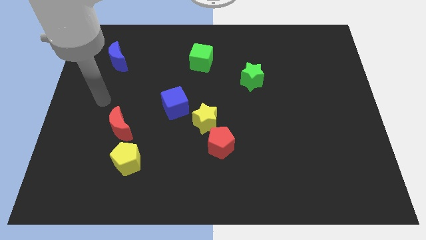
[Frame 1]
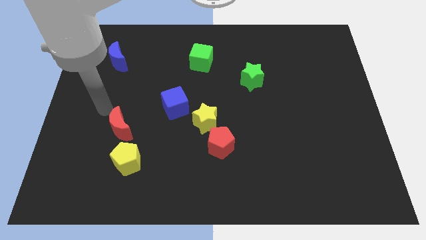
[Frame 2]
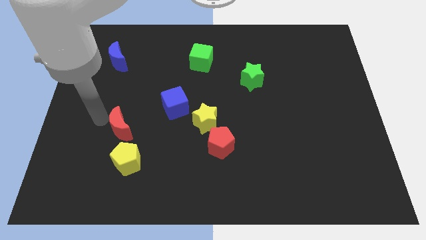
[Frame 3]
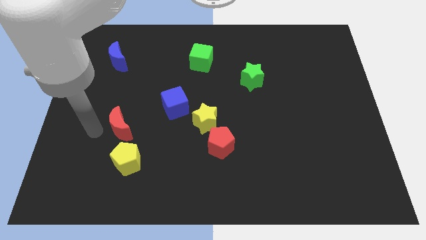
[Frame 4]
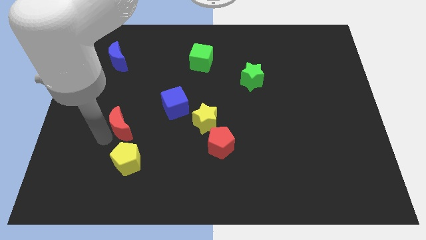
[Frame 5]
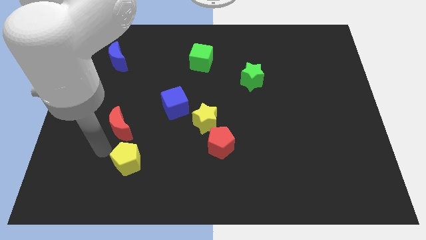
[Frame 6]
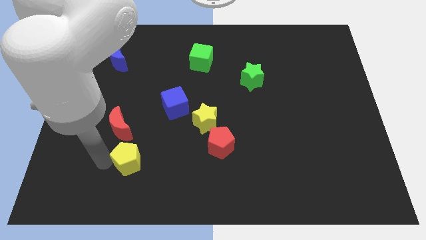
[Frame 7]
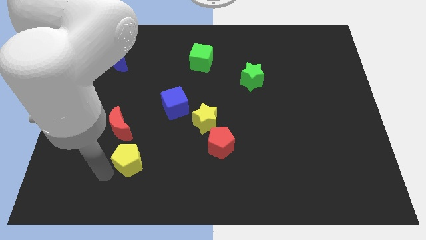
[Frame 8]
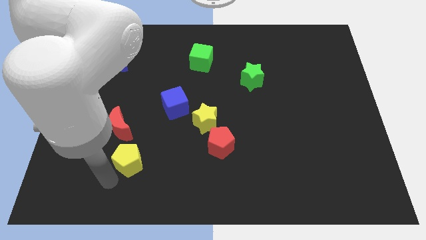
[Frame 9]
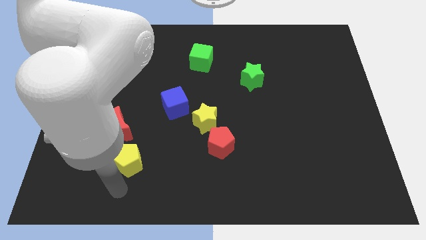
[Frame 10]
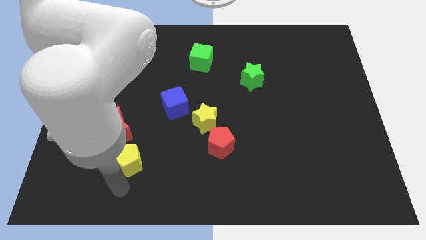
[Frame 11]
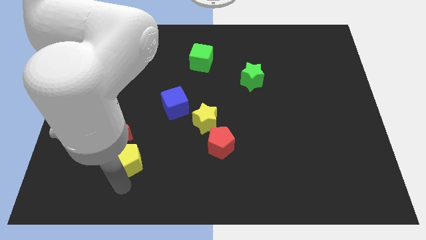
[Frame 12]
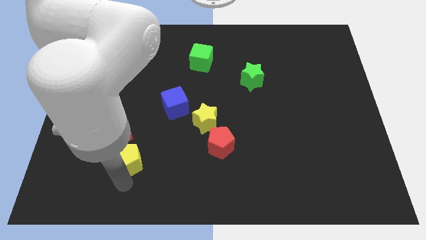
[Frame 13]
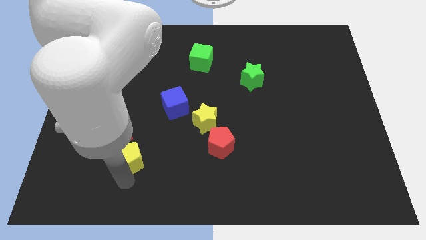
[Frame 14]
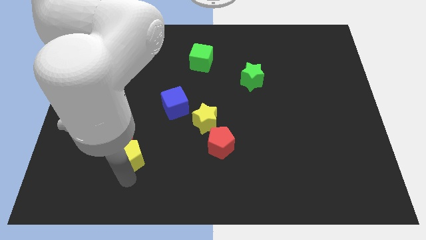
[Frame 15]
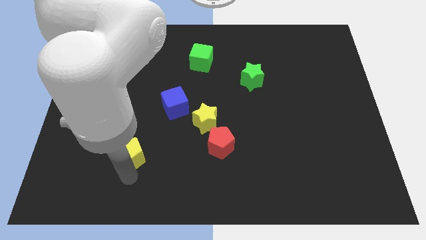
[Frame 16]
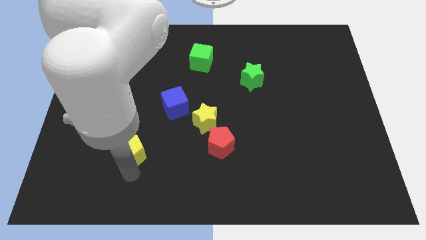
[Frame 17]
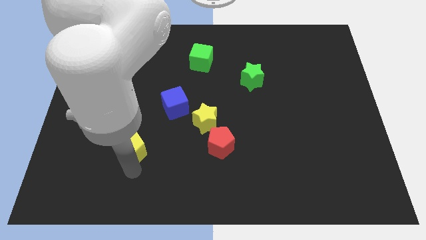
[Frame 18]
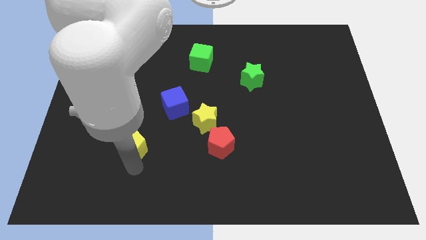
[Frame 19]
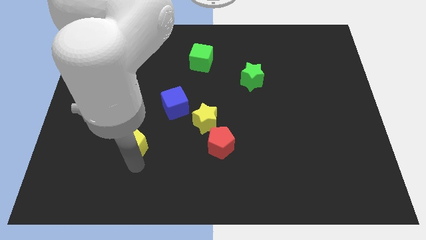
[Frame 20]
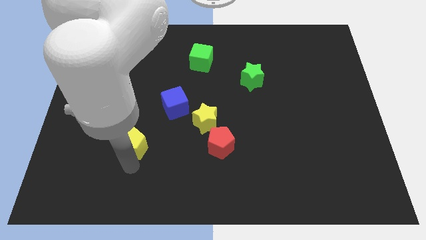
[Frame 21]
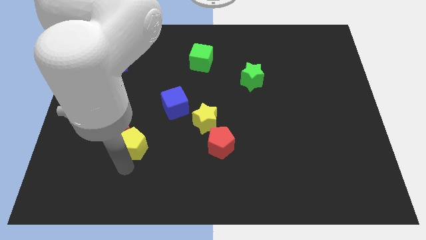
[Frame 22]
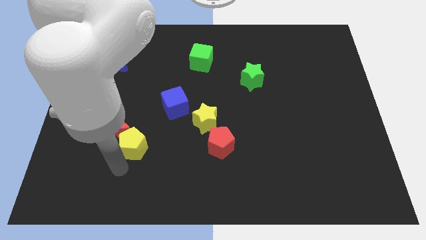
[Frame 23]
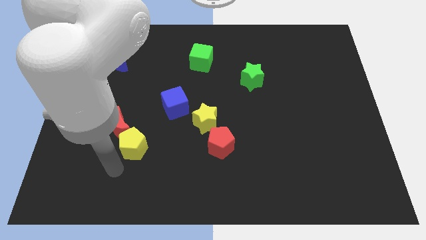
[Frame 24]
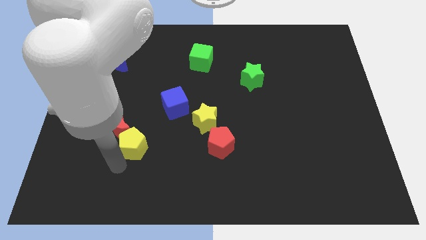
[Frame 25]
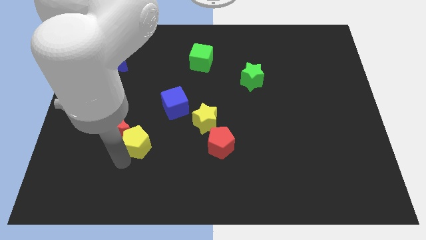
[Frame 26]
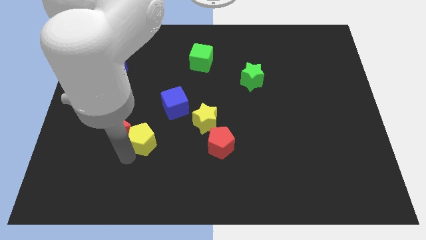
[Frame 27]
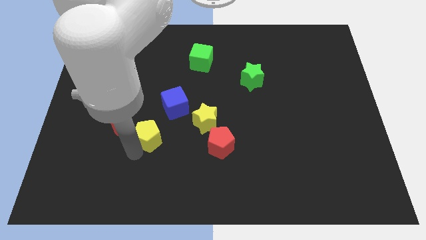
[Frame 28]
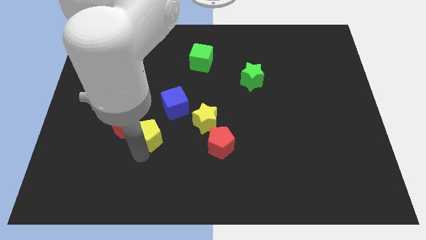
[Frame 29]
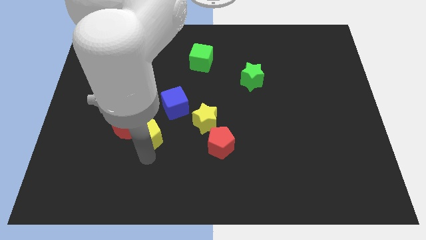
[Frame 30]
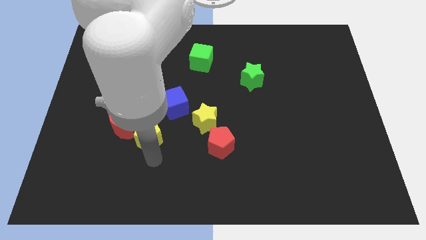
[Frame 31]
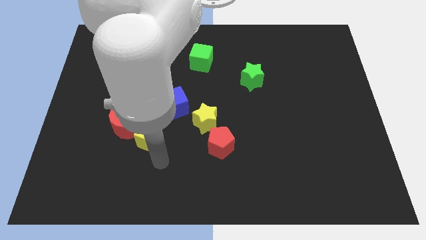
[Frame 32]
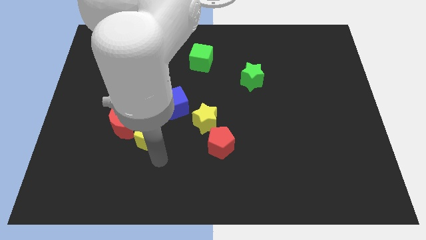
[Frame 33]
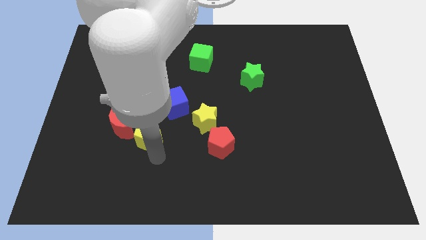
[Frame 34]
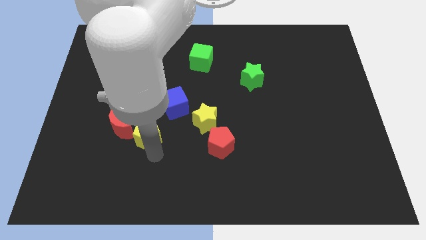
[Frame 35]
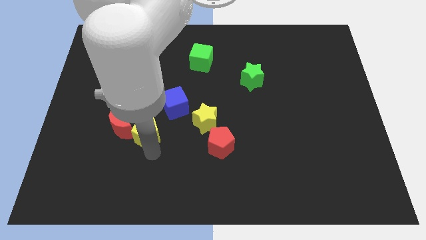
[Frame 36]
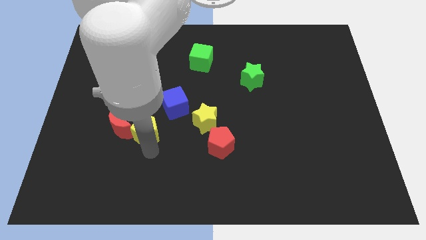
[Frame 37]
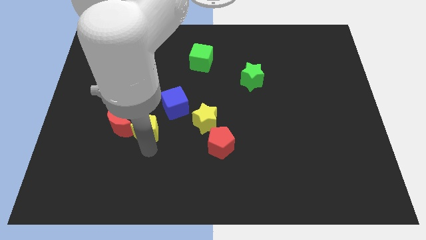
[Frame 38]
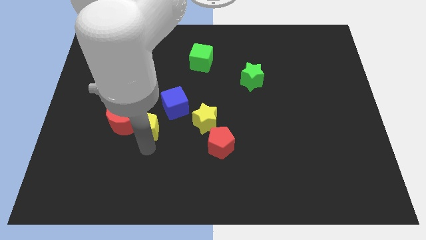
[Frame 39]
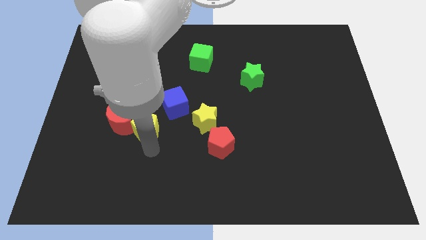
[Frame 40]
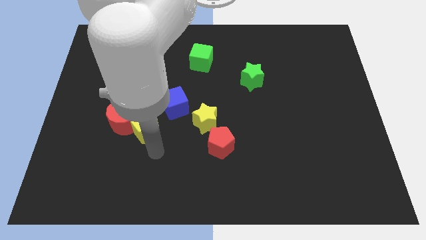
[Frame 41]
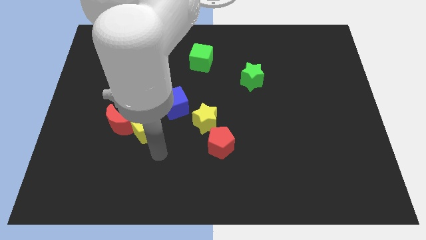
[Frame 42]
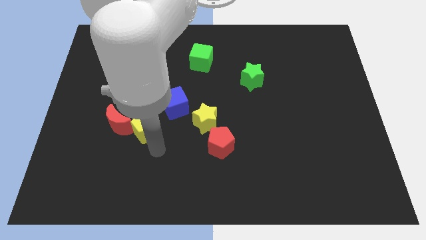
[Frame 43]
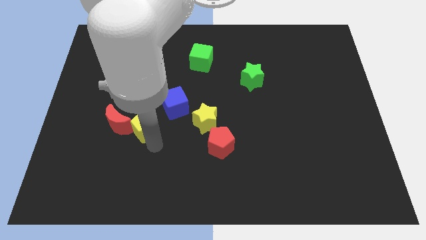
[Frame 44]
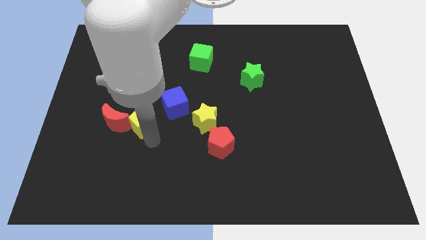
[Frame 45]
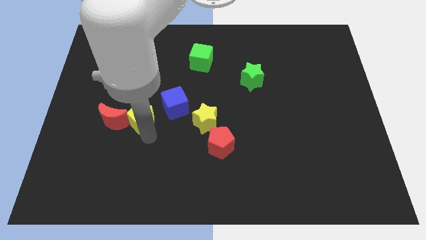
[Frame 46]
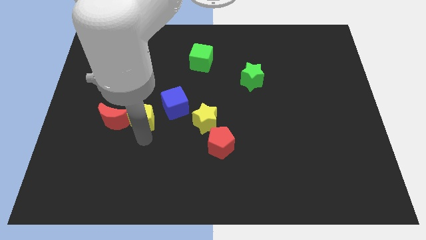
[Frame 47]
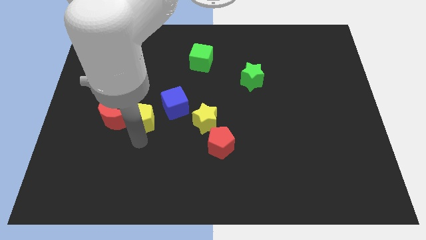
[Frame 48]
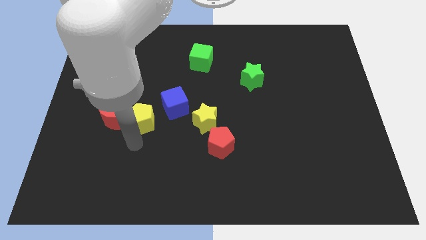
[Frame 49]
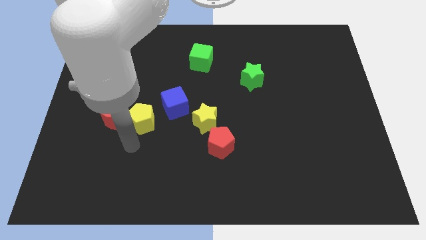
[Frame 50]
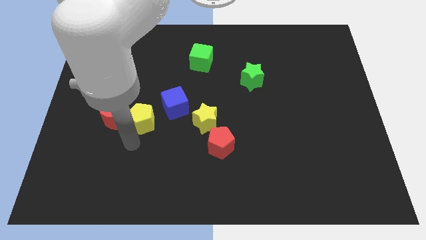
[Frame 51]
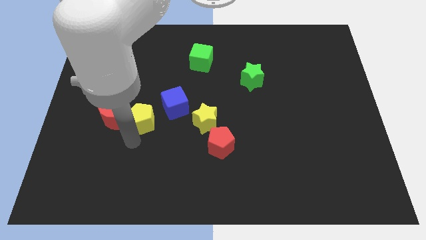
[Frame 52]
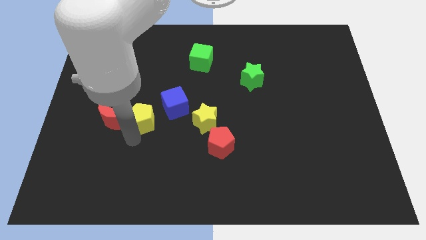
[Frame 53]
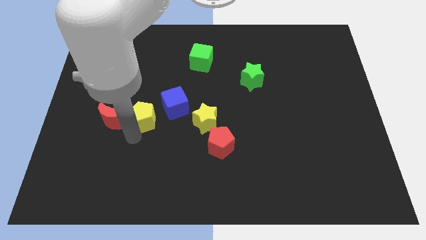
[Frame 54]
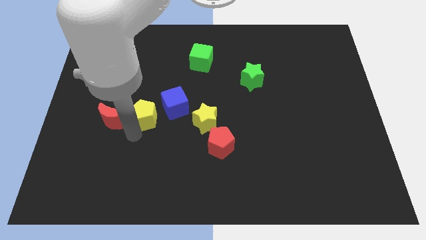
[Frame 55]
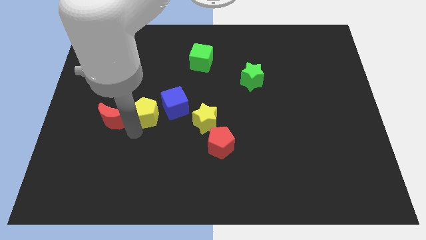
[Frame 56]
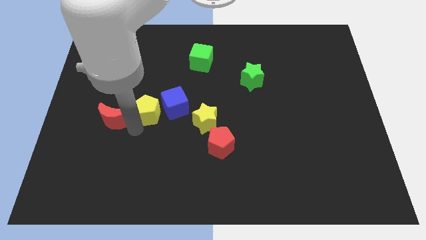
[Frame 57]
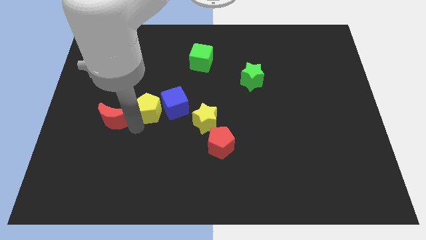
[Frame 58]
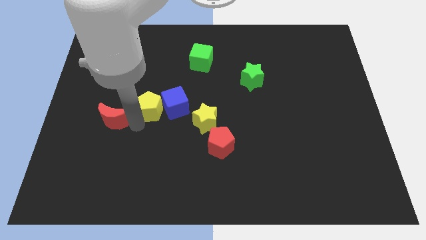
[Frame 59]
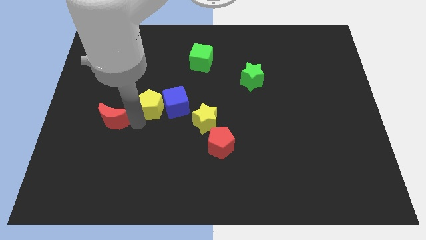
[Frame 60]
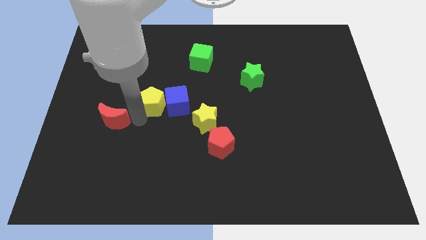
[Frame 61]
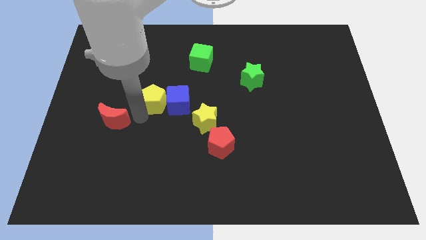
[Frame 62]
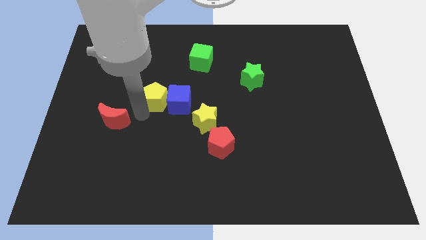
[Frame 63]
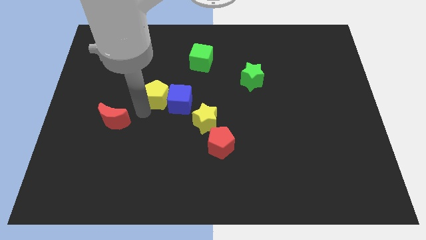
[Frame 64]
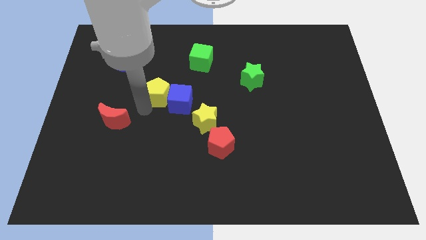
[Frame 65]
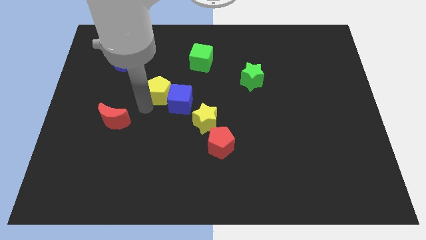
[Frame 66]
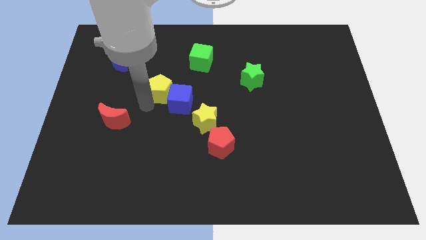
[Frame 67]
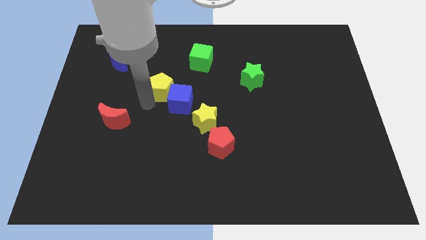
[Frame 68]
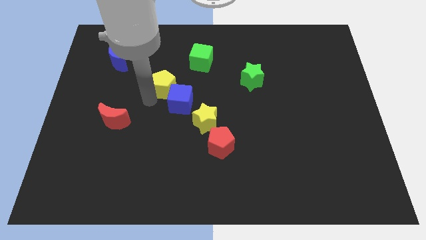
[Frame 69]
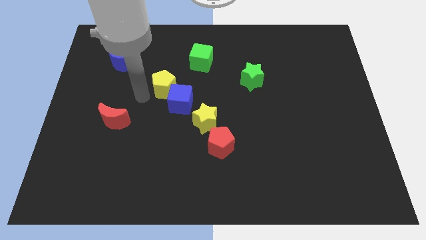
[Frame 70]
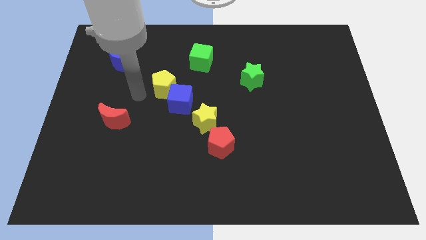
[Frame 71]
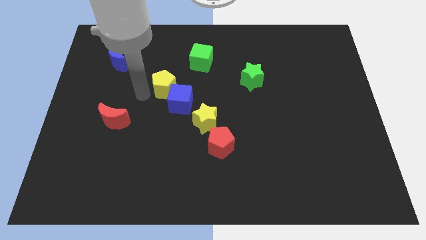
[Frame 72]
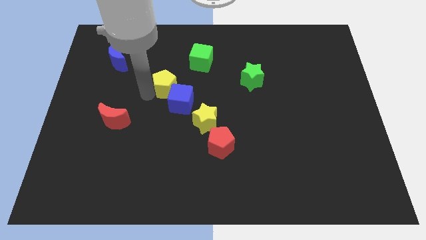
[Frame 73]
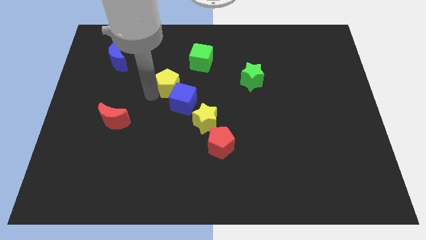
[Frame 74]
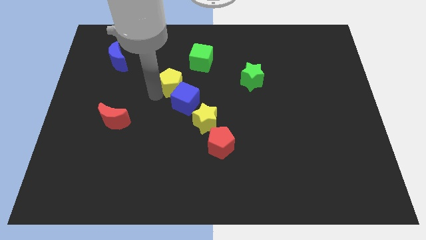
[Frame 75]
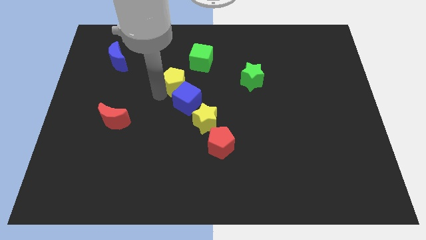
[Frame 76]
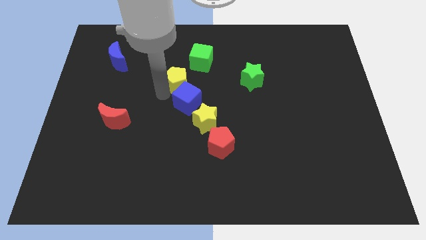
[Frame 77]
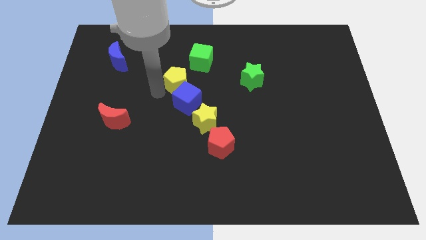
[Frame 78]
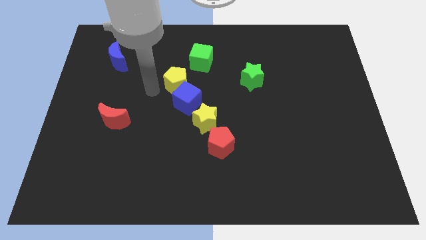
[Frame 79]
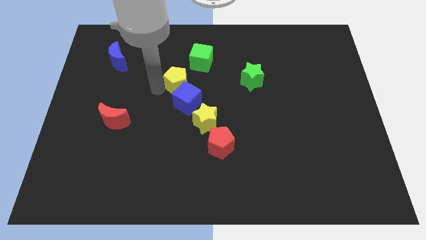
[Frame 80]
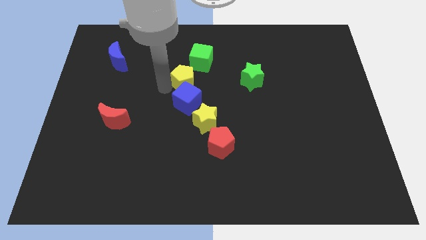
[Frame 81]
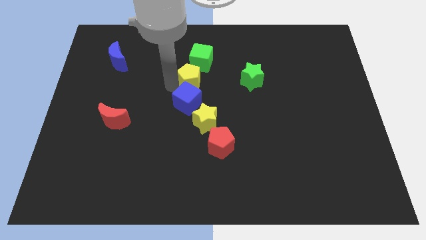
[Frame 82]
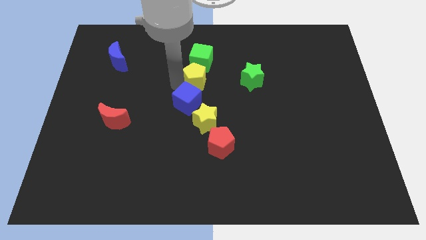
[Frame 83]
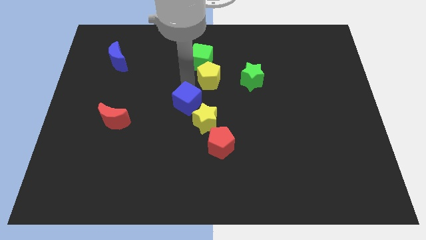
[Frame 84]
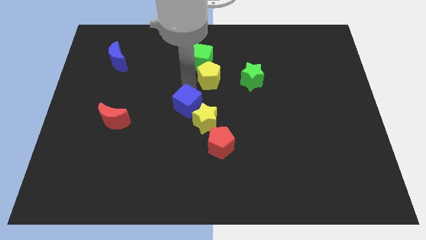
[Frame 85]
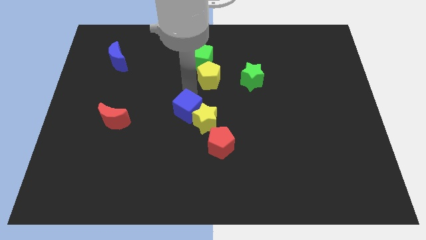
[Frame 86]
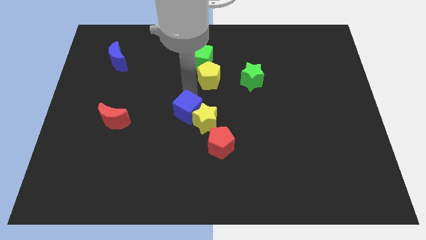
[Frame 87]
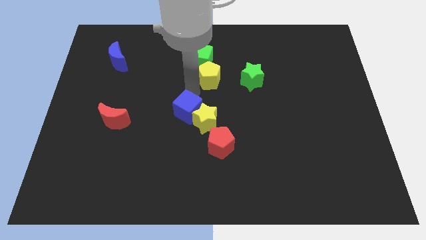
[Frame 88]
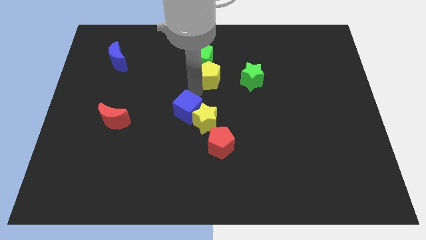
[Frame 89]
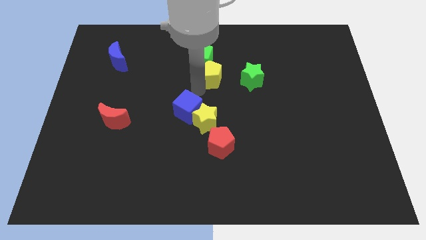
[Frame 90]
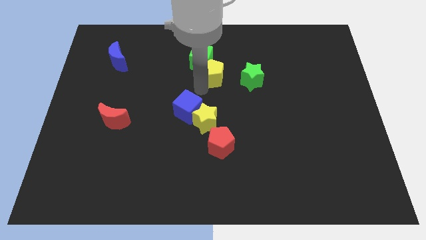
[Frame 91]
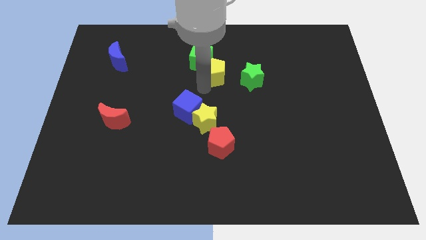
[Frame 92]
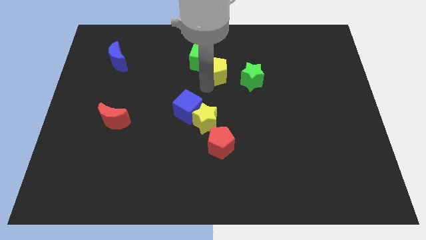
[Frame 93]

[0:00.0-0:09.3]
slide the yellow pentagon to the top left side of the green star
